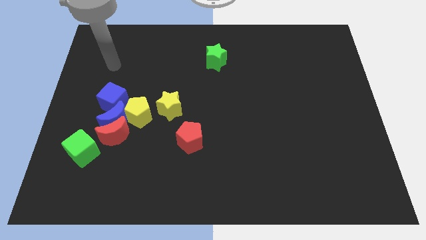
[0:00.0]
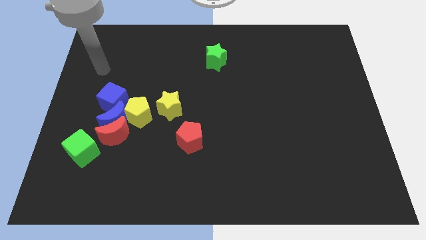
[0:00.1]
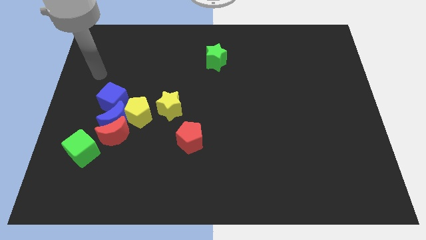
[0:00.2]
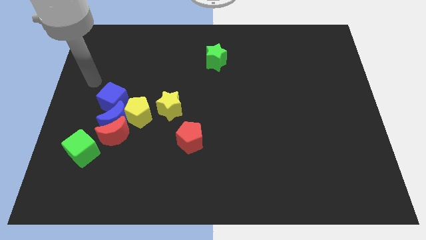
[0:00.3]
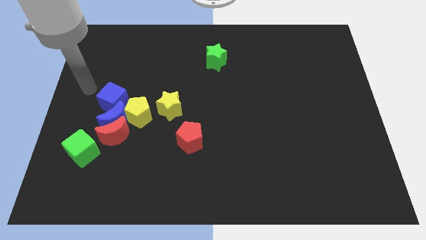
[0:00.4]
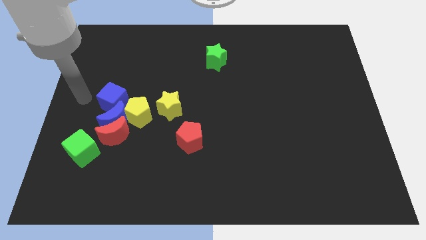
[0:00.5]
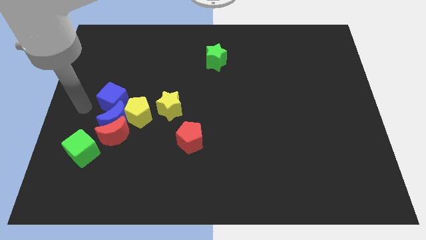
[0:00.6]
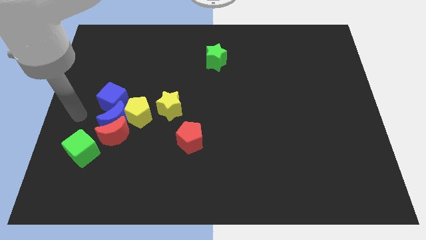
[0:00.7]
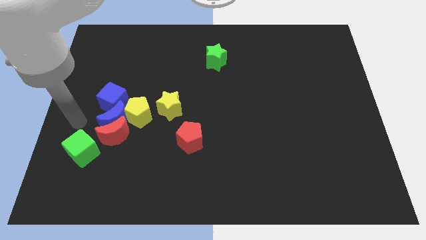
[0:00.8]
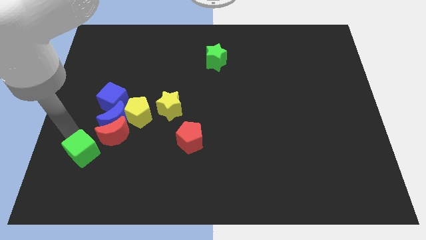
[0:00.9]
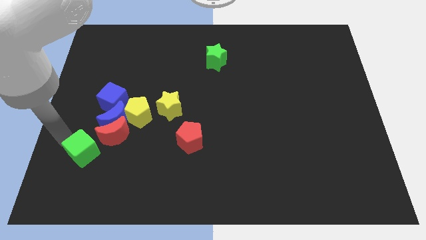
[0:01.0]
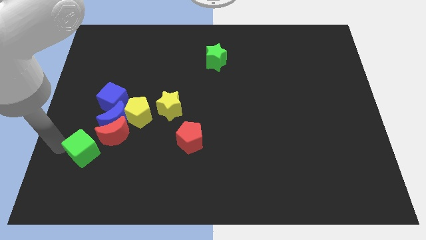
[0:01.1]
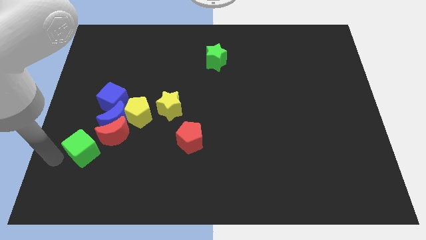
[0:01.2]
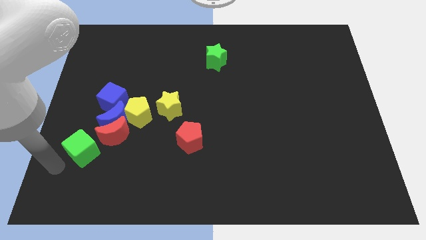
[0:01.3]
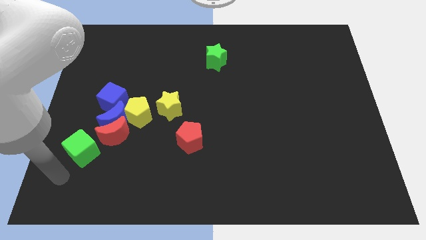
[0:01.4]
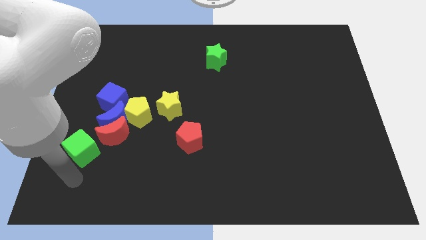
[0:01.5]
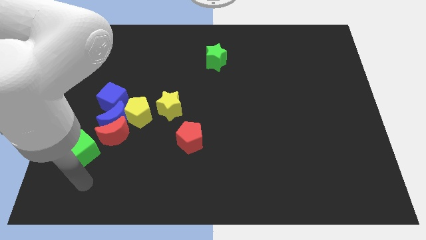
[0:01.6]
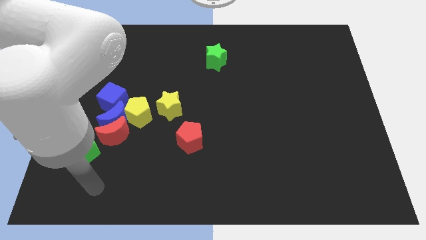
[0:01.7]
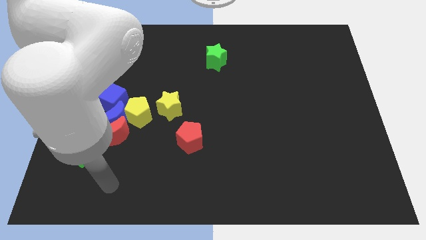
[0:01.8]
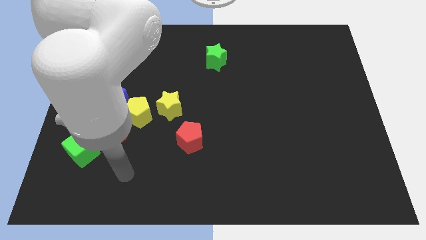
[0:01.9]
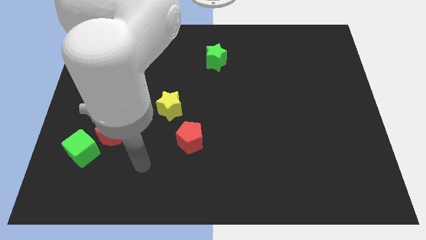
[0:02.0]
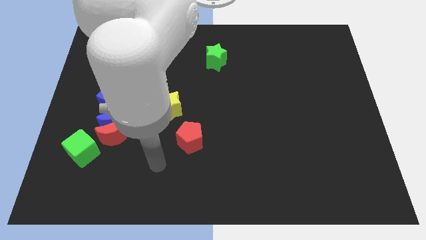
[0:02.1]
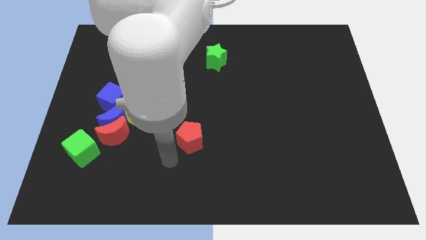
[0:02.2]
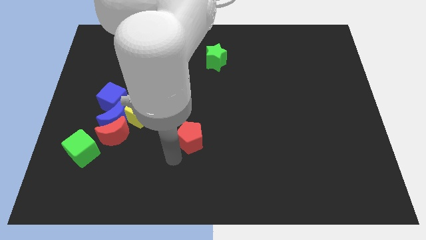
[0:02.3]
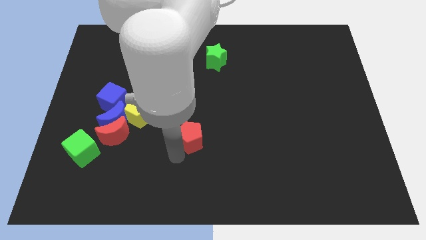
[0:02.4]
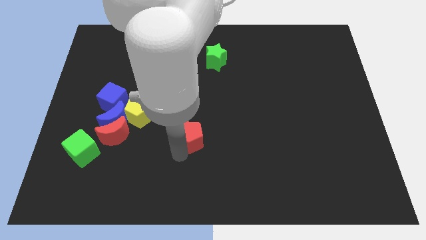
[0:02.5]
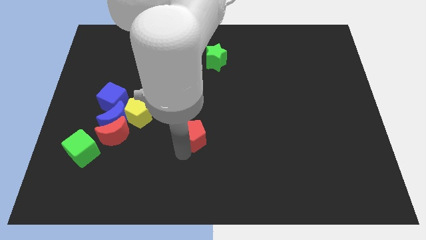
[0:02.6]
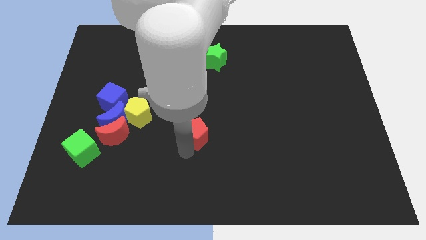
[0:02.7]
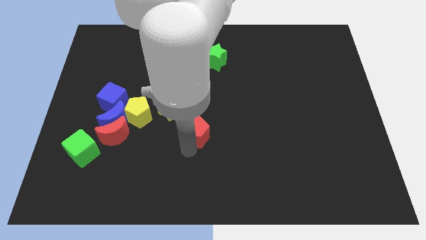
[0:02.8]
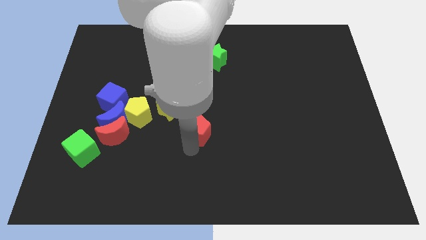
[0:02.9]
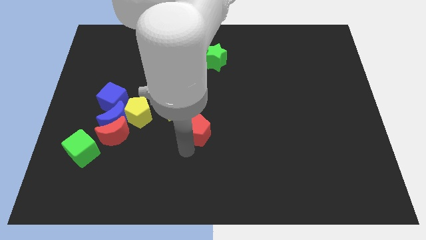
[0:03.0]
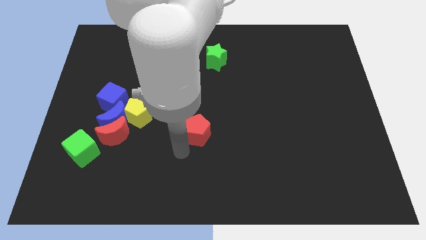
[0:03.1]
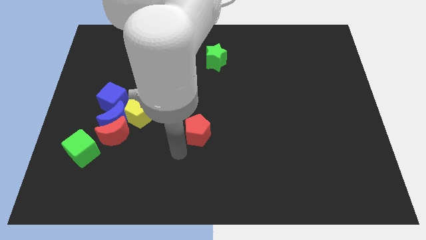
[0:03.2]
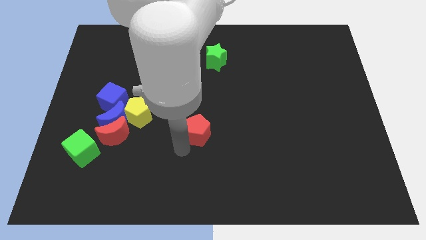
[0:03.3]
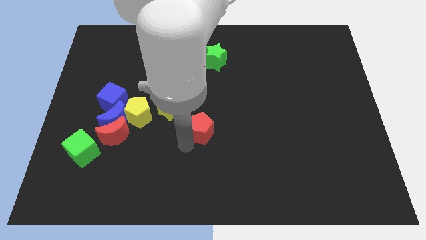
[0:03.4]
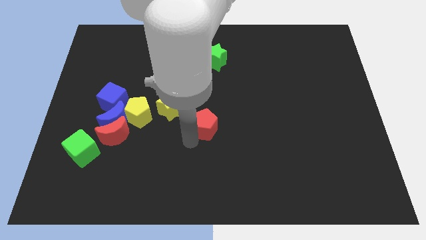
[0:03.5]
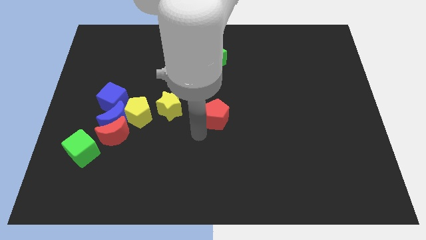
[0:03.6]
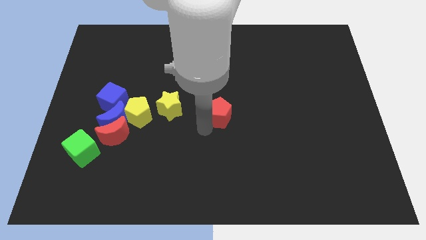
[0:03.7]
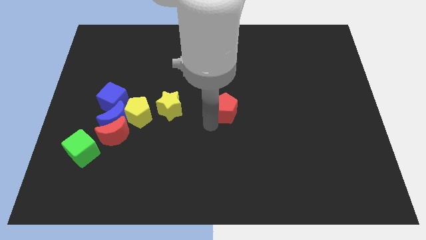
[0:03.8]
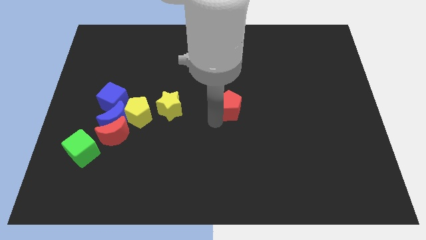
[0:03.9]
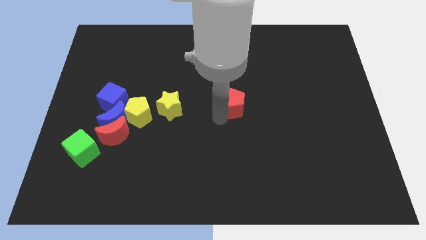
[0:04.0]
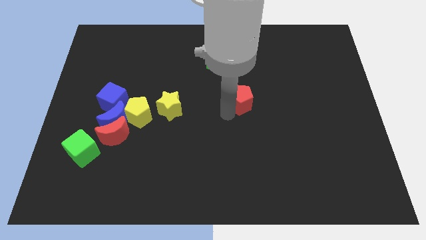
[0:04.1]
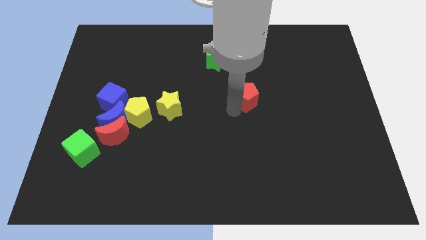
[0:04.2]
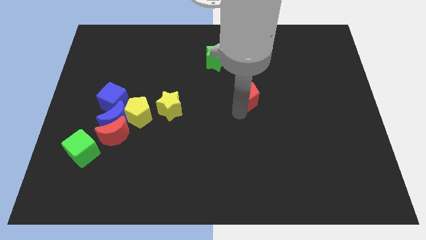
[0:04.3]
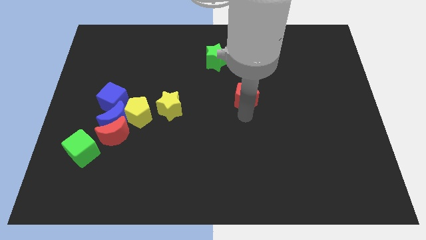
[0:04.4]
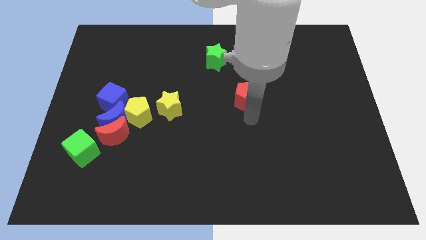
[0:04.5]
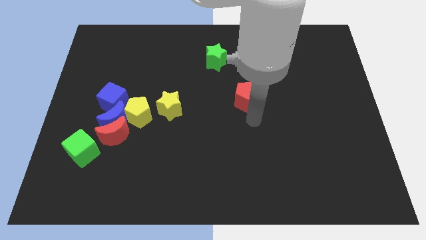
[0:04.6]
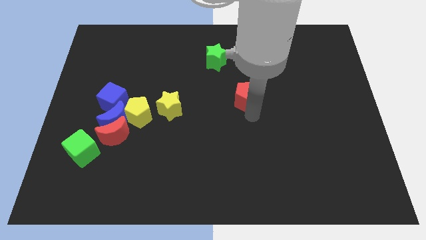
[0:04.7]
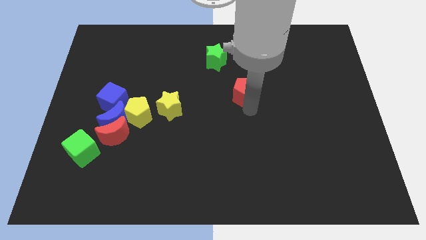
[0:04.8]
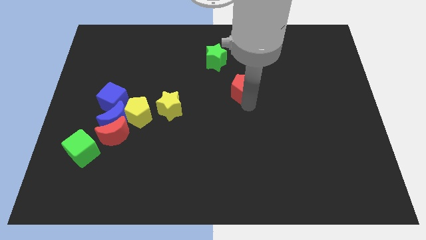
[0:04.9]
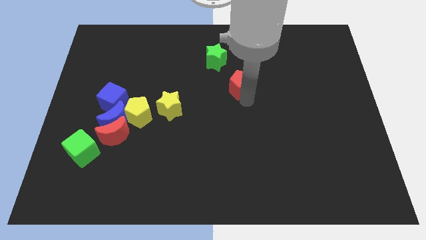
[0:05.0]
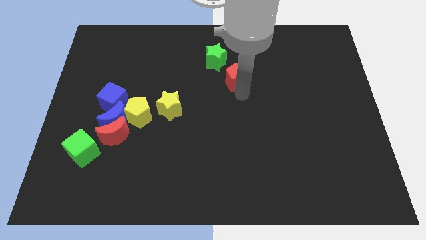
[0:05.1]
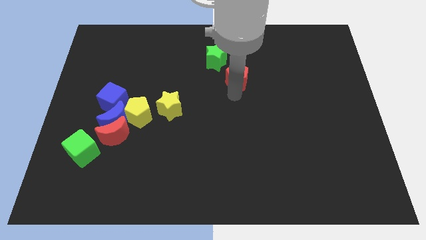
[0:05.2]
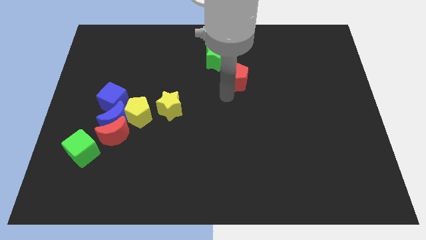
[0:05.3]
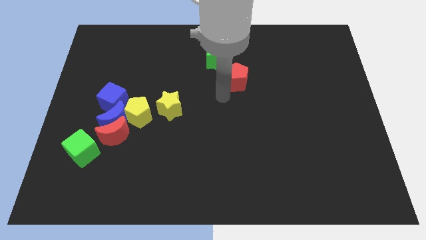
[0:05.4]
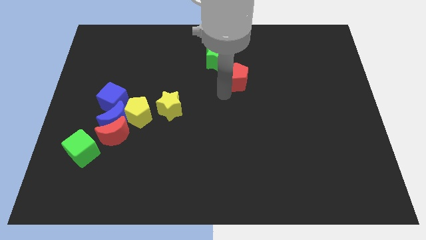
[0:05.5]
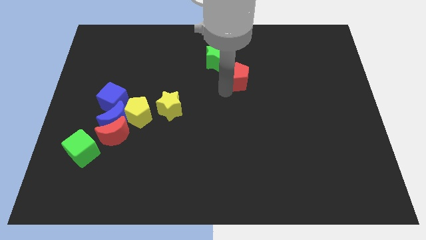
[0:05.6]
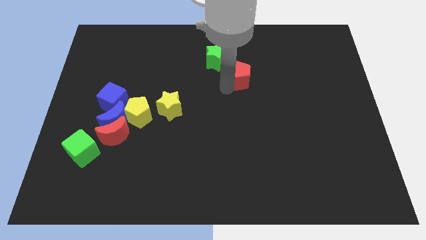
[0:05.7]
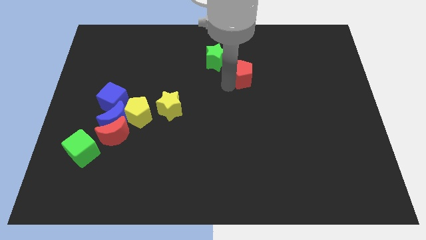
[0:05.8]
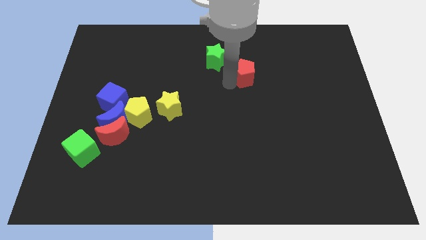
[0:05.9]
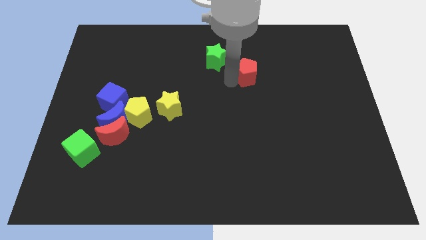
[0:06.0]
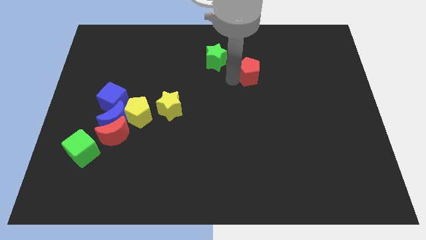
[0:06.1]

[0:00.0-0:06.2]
put the red pentagon to the right side of the green star
